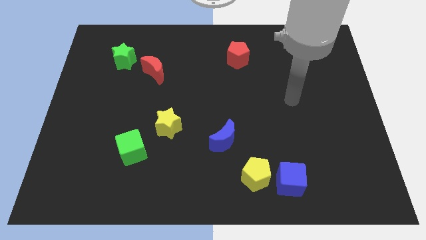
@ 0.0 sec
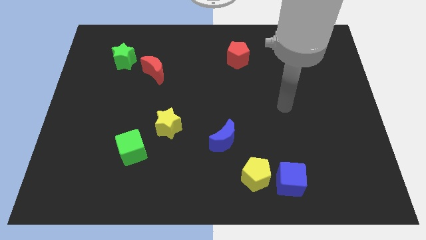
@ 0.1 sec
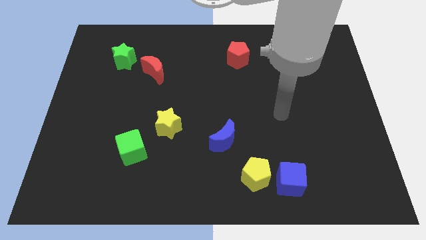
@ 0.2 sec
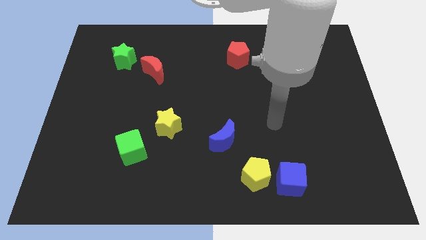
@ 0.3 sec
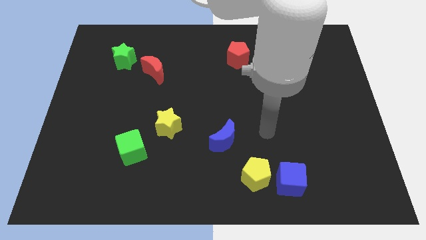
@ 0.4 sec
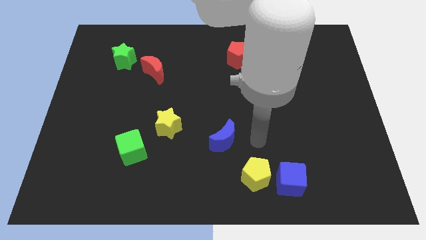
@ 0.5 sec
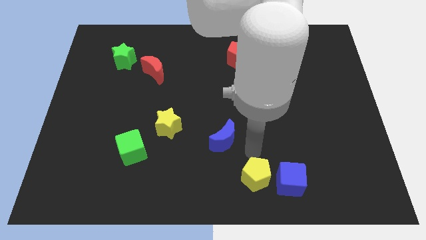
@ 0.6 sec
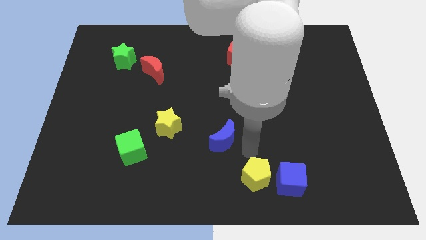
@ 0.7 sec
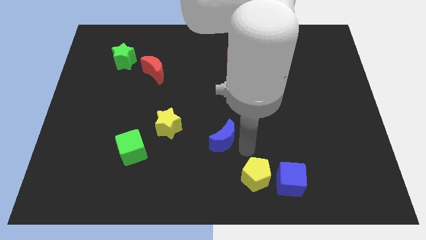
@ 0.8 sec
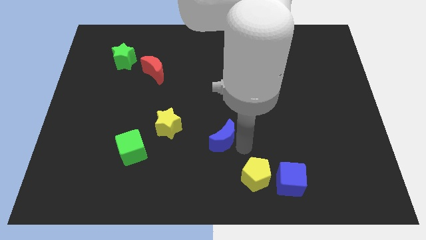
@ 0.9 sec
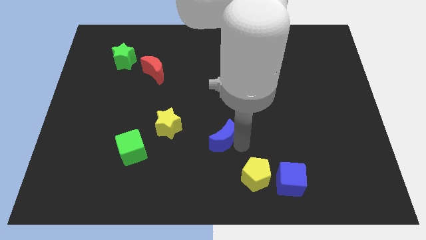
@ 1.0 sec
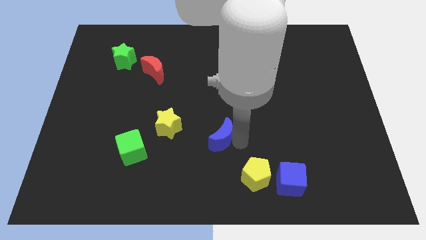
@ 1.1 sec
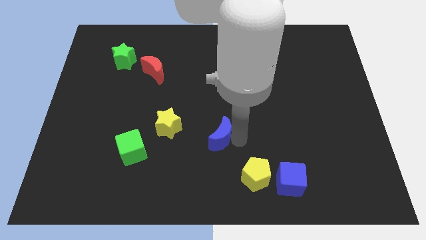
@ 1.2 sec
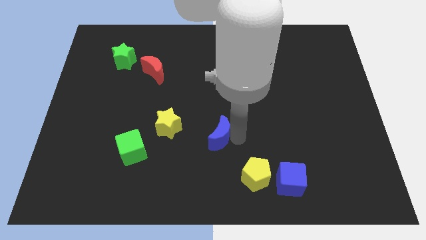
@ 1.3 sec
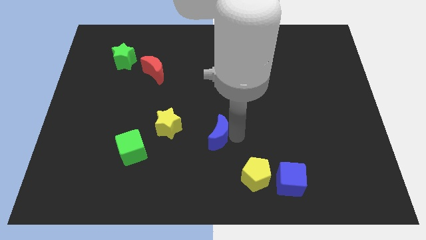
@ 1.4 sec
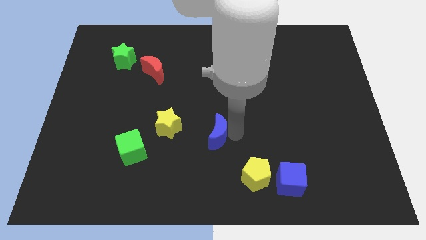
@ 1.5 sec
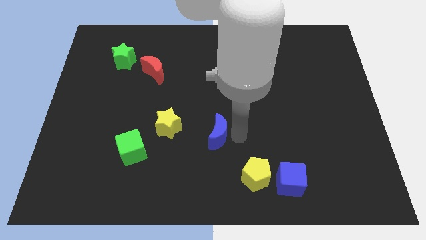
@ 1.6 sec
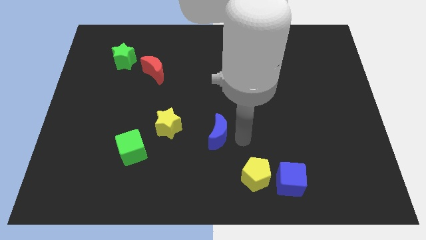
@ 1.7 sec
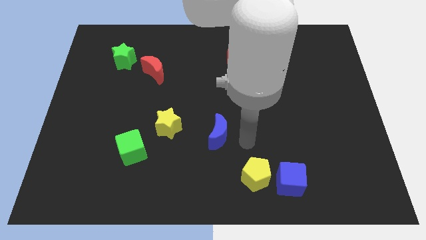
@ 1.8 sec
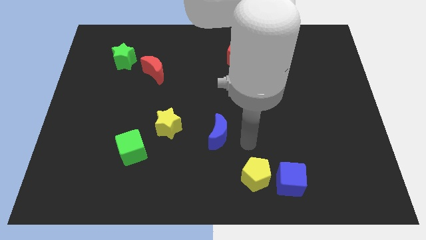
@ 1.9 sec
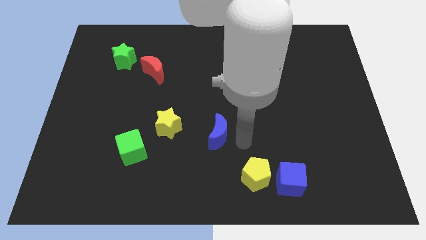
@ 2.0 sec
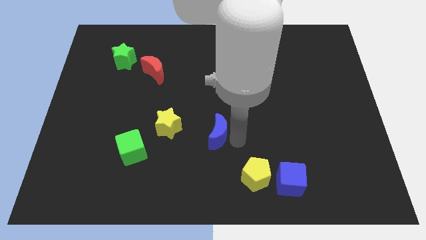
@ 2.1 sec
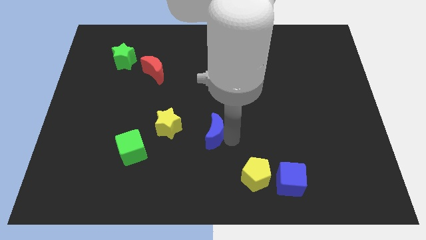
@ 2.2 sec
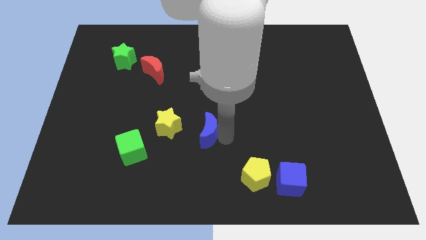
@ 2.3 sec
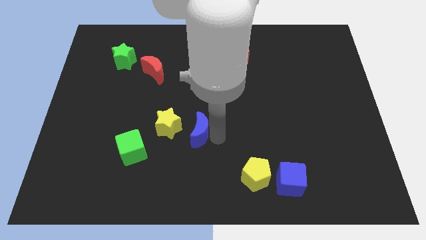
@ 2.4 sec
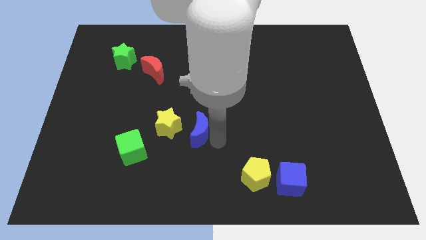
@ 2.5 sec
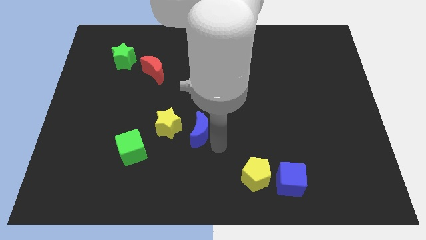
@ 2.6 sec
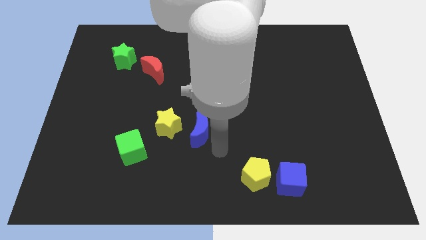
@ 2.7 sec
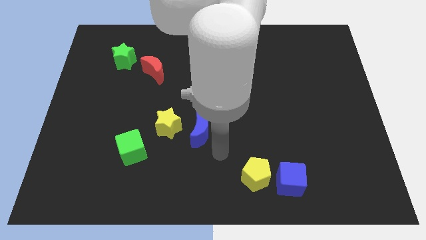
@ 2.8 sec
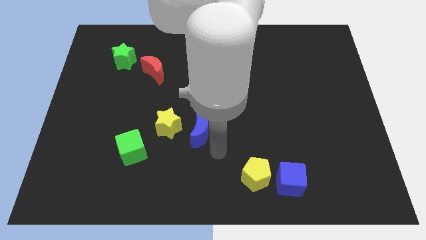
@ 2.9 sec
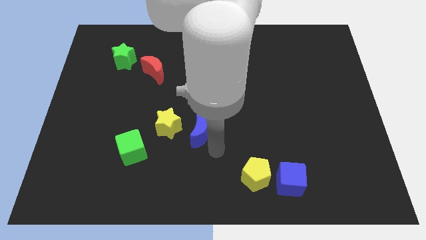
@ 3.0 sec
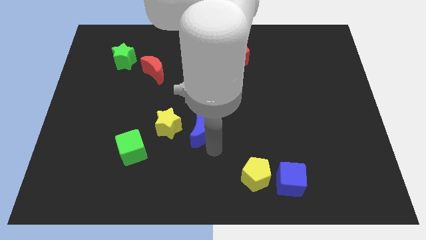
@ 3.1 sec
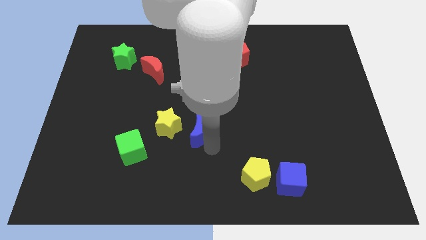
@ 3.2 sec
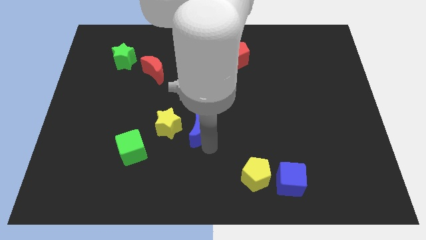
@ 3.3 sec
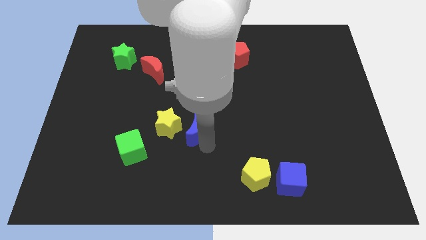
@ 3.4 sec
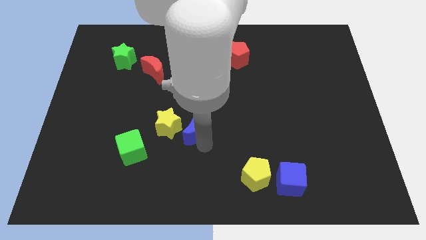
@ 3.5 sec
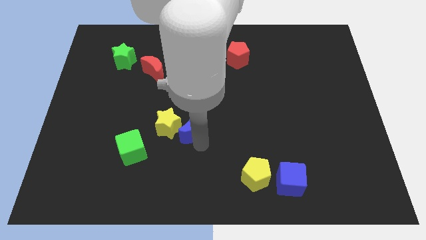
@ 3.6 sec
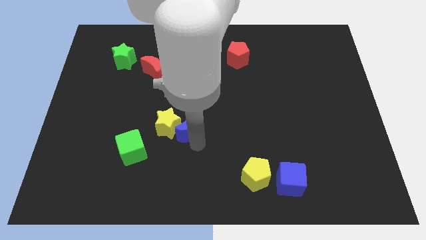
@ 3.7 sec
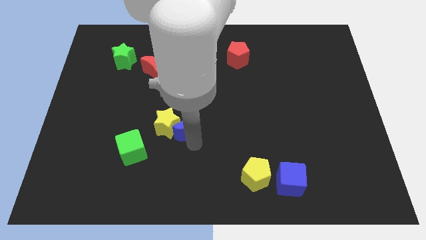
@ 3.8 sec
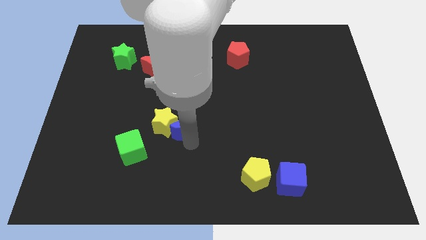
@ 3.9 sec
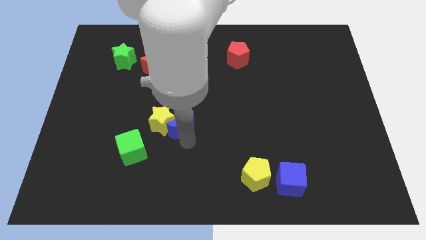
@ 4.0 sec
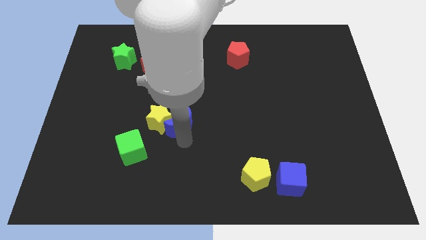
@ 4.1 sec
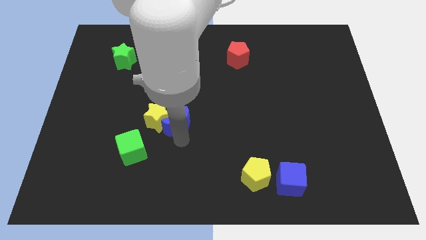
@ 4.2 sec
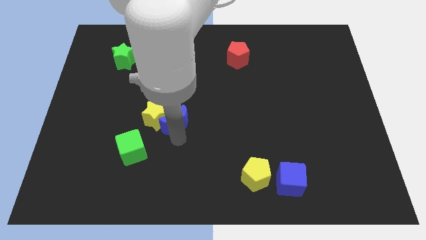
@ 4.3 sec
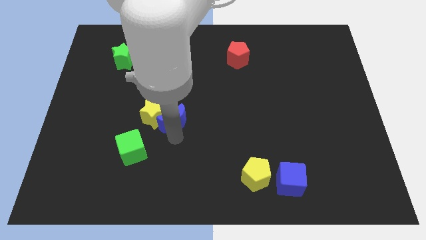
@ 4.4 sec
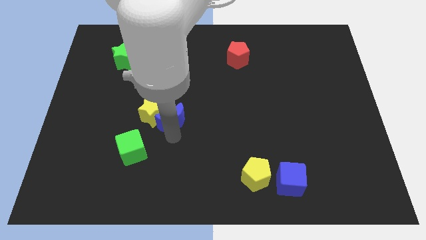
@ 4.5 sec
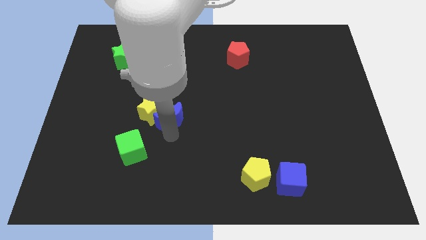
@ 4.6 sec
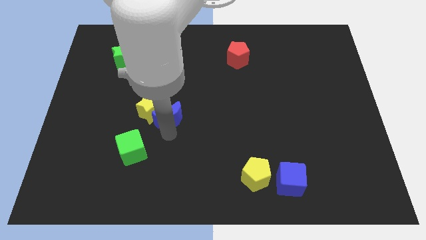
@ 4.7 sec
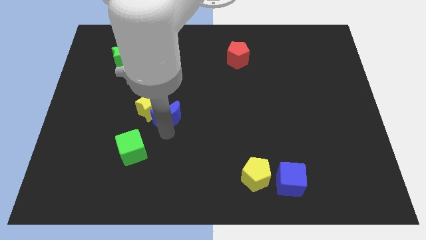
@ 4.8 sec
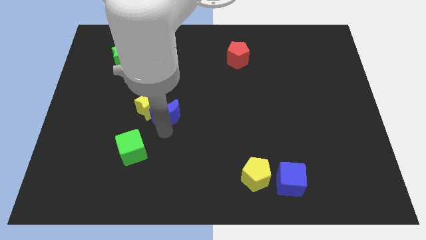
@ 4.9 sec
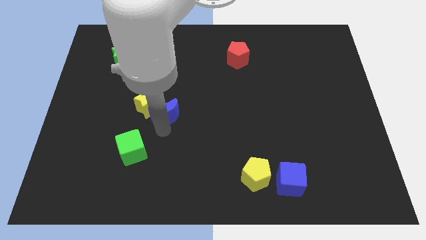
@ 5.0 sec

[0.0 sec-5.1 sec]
push the blue moon below the red moon

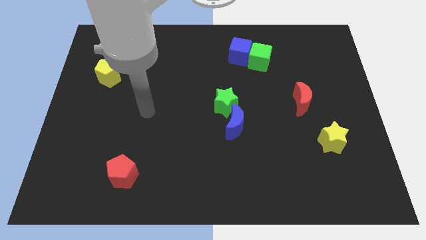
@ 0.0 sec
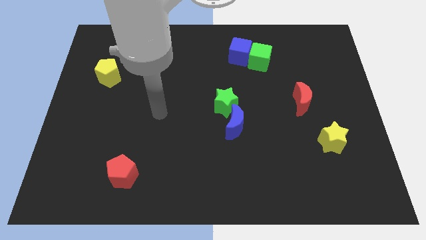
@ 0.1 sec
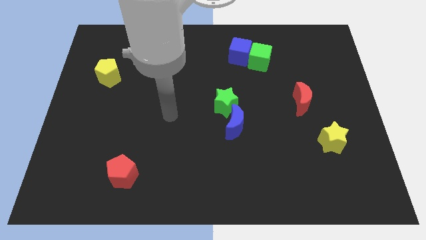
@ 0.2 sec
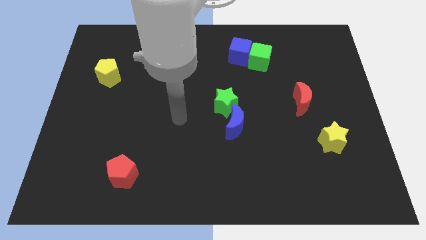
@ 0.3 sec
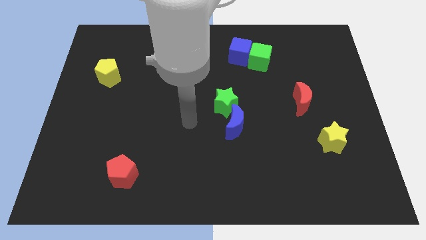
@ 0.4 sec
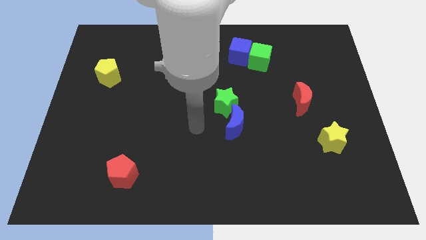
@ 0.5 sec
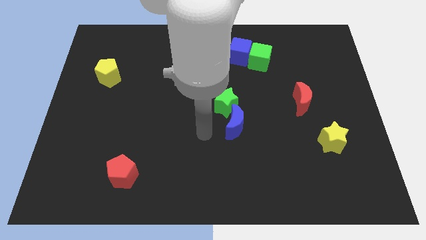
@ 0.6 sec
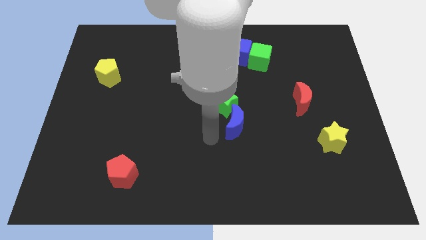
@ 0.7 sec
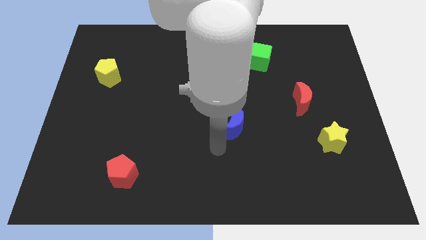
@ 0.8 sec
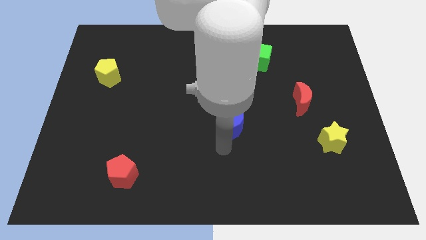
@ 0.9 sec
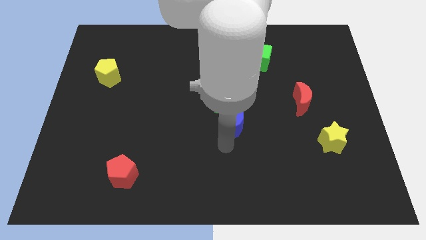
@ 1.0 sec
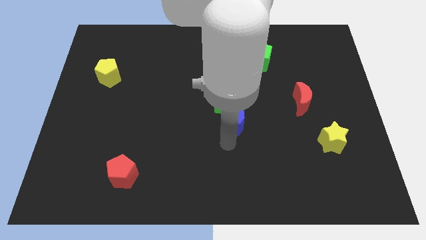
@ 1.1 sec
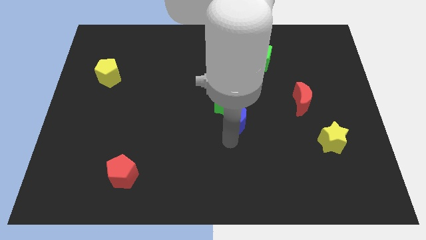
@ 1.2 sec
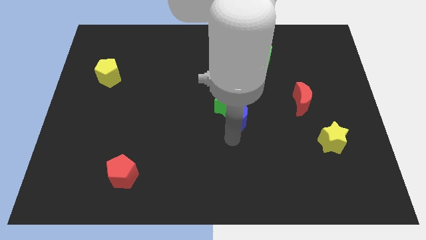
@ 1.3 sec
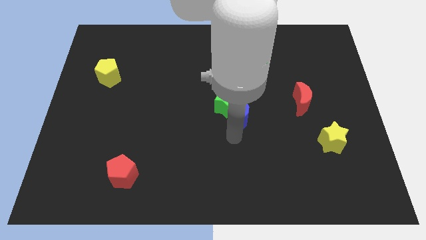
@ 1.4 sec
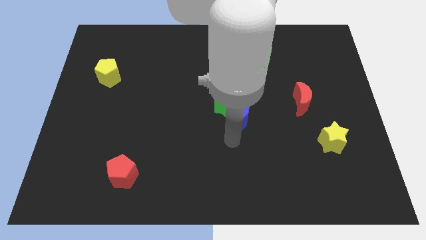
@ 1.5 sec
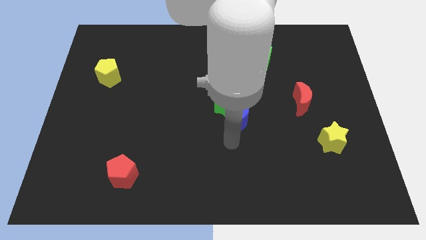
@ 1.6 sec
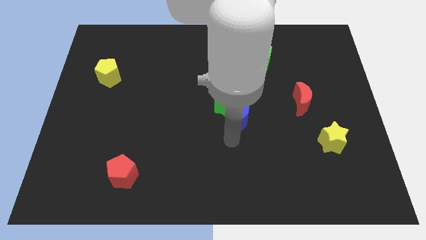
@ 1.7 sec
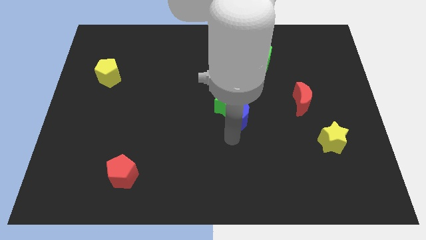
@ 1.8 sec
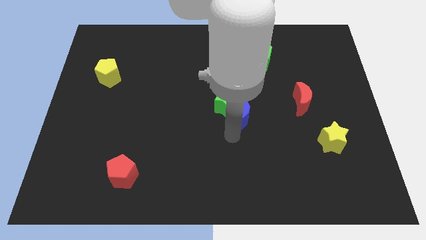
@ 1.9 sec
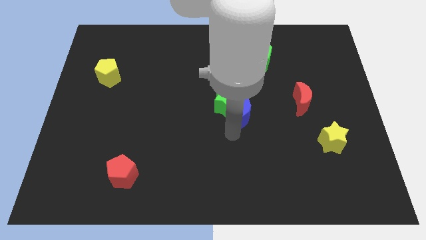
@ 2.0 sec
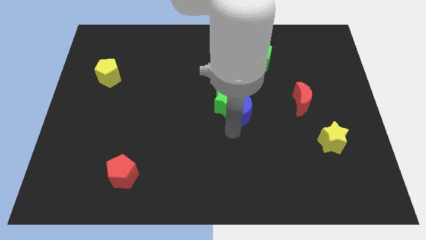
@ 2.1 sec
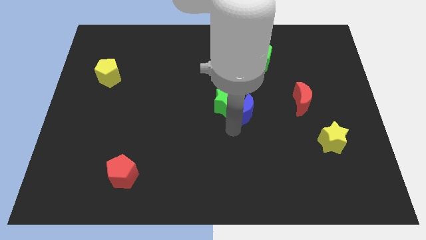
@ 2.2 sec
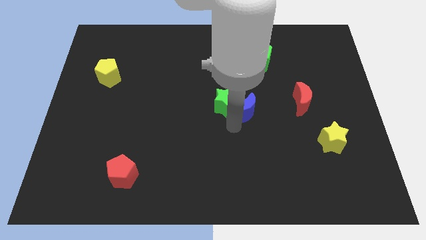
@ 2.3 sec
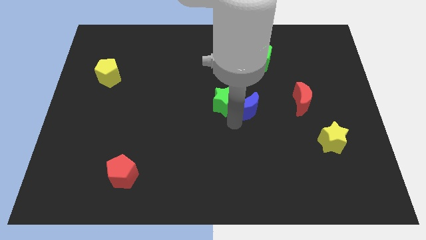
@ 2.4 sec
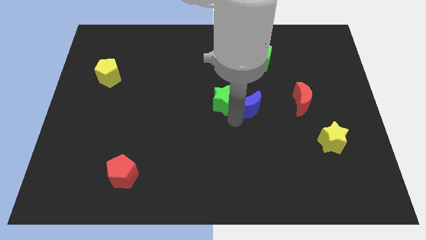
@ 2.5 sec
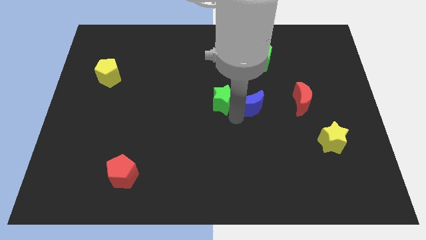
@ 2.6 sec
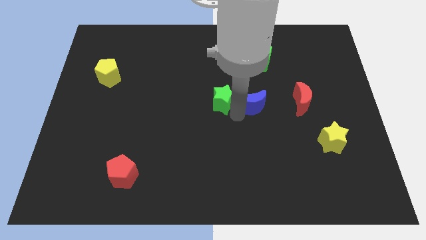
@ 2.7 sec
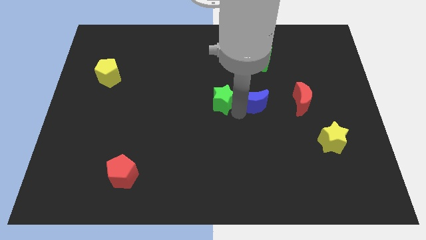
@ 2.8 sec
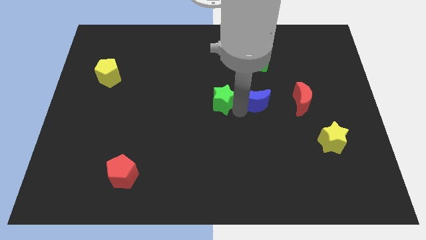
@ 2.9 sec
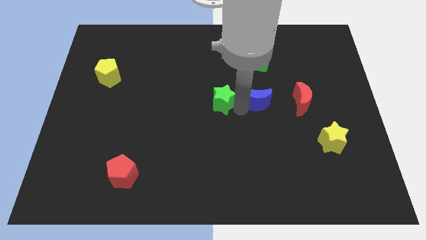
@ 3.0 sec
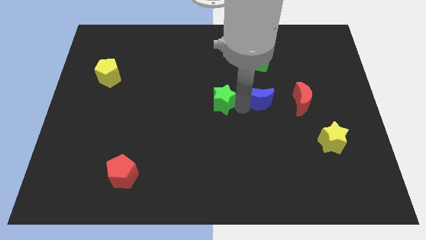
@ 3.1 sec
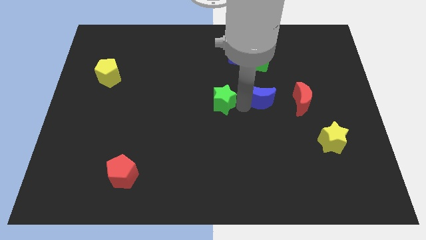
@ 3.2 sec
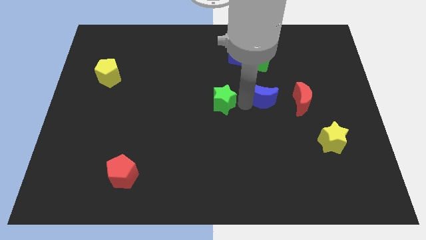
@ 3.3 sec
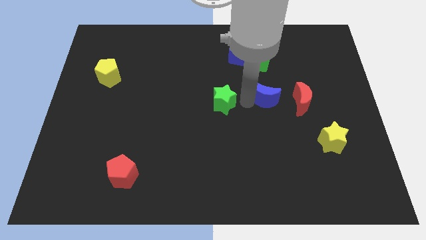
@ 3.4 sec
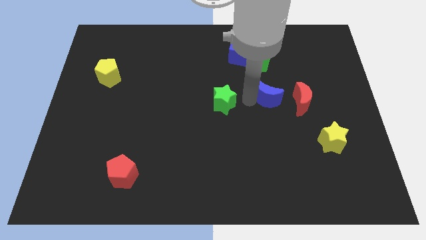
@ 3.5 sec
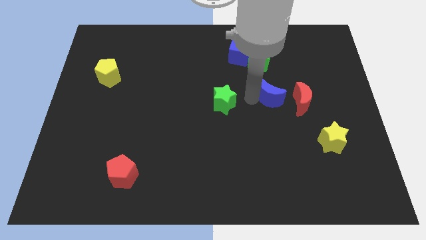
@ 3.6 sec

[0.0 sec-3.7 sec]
move the blue moon to the top left of the red moon
